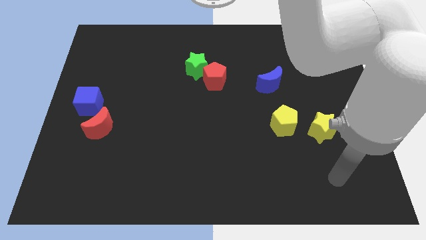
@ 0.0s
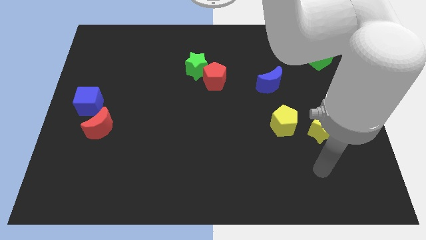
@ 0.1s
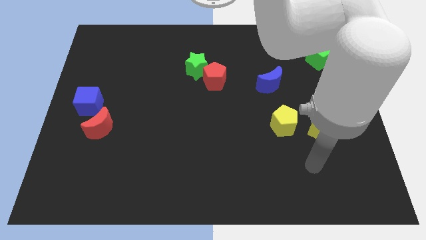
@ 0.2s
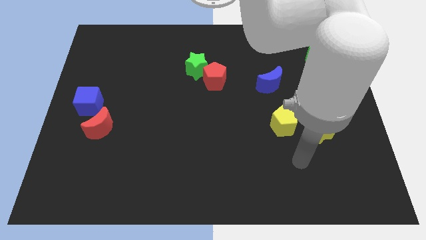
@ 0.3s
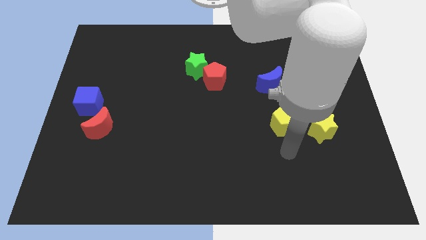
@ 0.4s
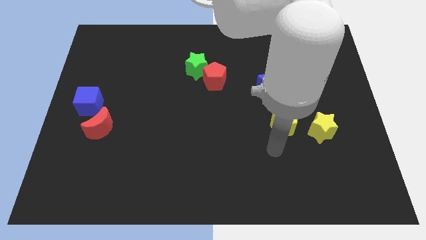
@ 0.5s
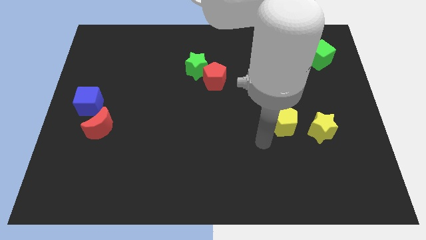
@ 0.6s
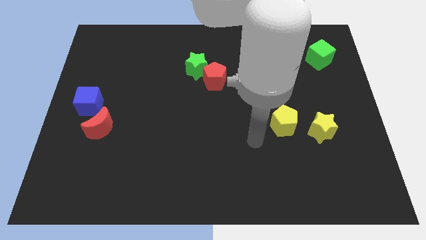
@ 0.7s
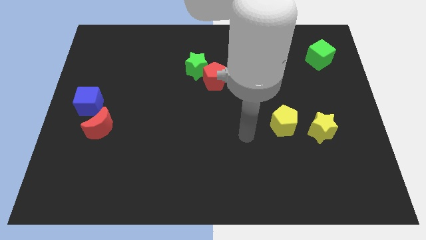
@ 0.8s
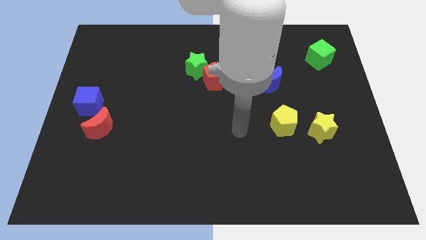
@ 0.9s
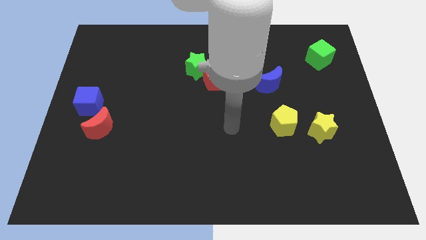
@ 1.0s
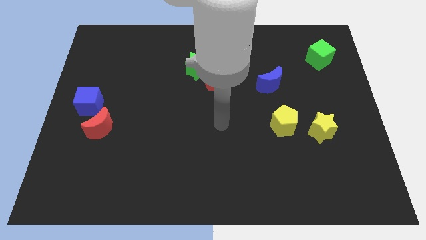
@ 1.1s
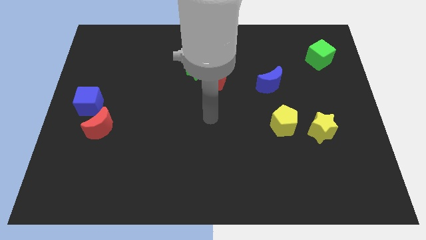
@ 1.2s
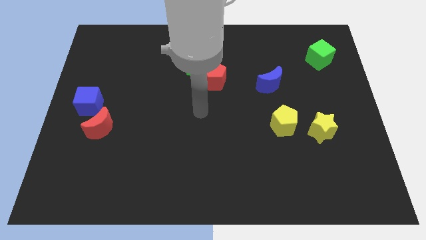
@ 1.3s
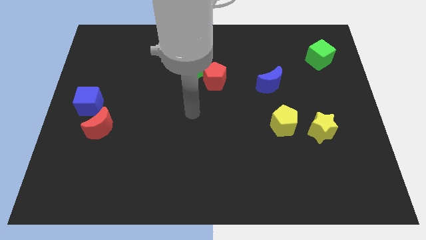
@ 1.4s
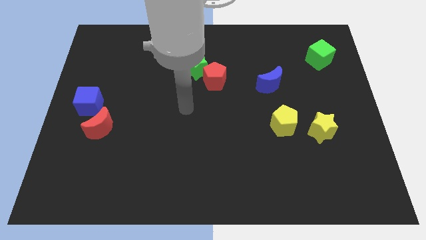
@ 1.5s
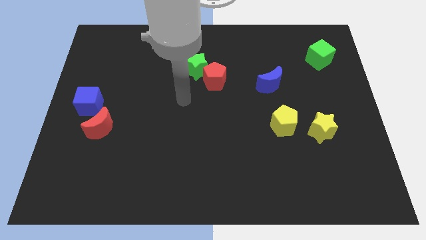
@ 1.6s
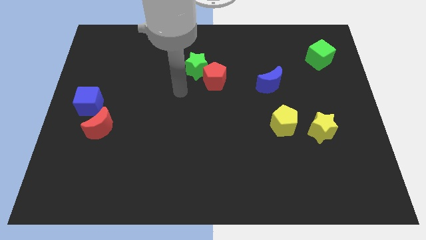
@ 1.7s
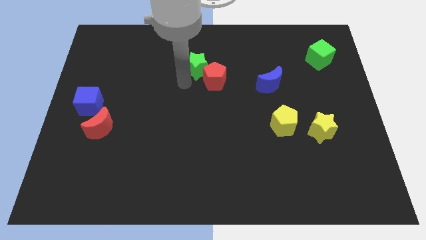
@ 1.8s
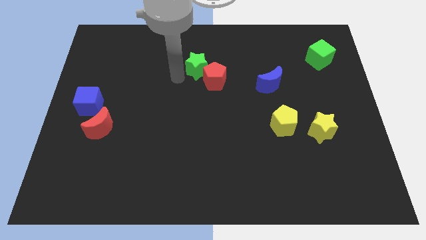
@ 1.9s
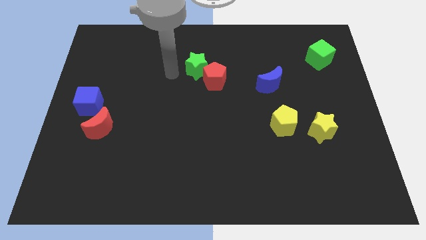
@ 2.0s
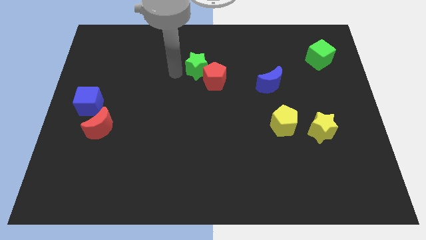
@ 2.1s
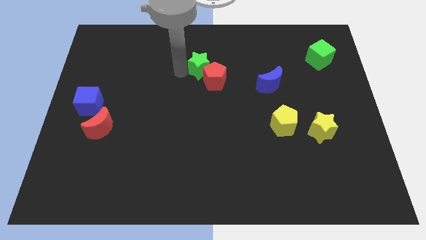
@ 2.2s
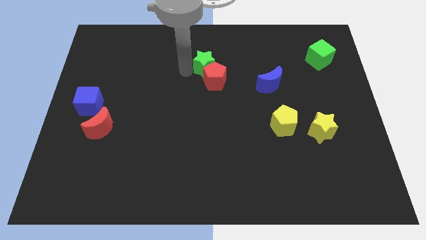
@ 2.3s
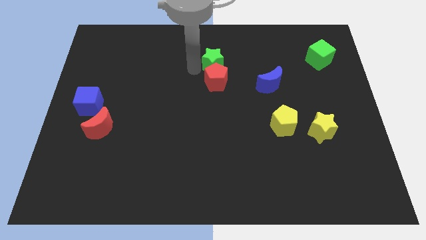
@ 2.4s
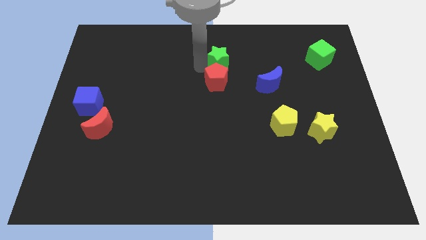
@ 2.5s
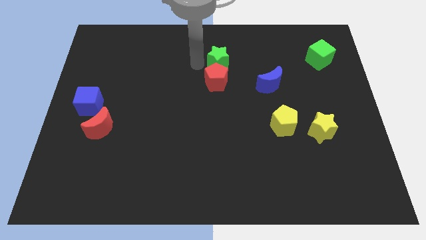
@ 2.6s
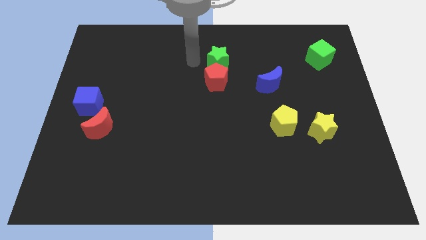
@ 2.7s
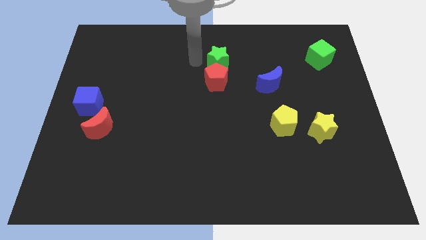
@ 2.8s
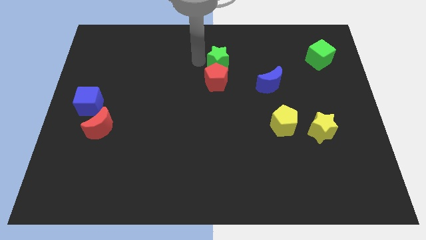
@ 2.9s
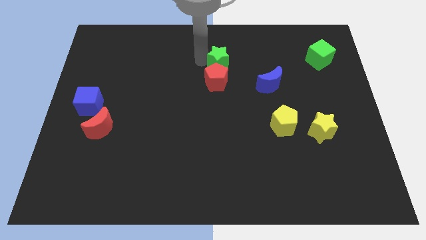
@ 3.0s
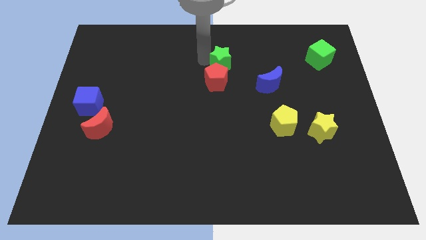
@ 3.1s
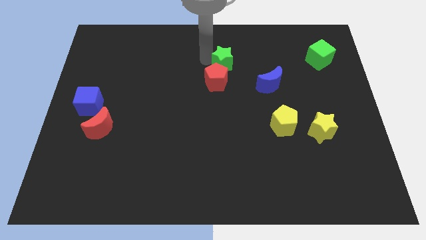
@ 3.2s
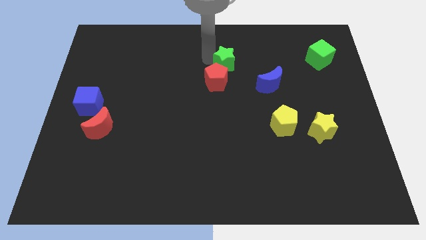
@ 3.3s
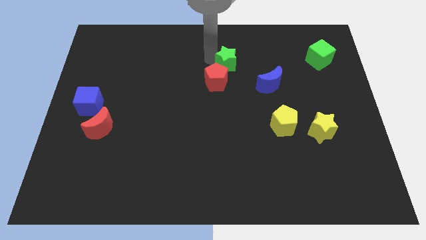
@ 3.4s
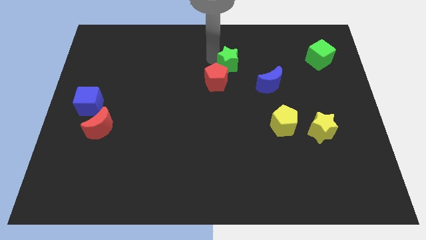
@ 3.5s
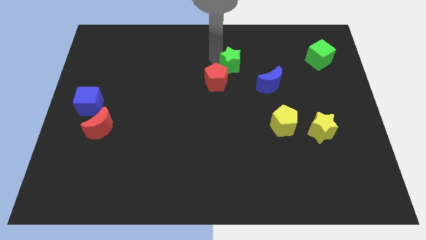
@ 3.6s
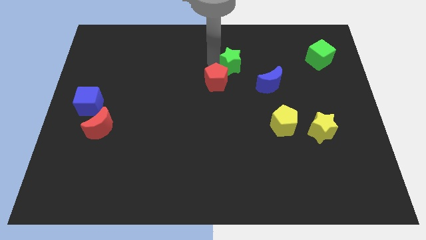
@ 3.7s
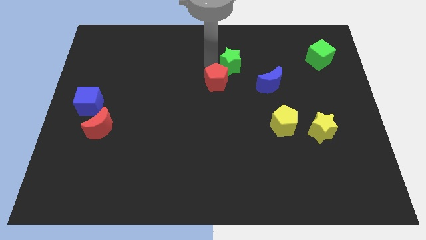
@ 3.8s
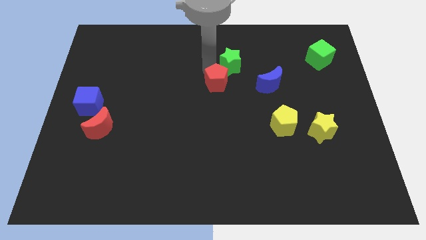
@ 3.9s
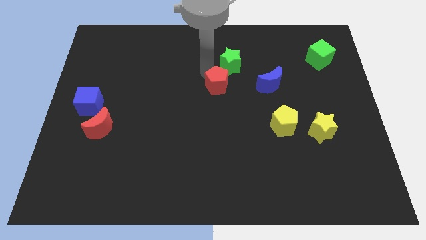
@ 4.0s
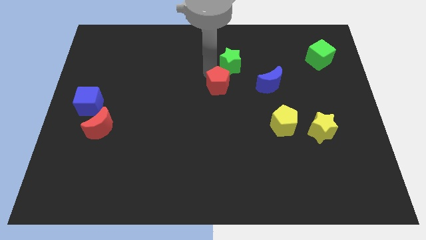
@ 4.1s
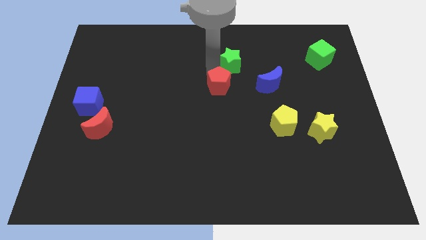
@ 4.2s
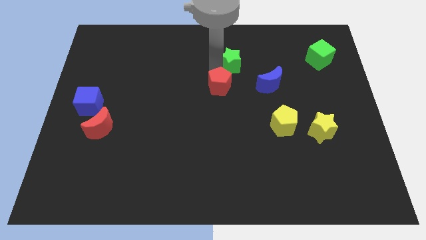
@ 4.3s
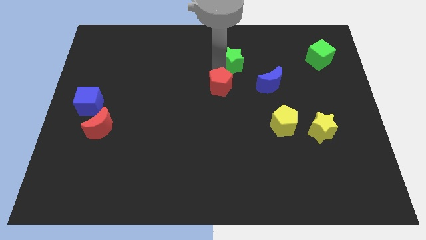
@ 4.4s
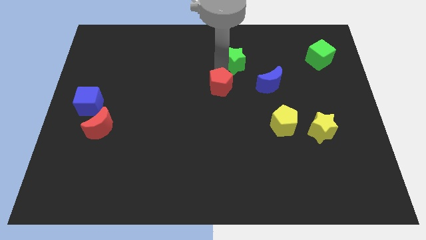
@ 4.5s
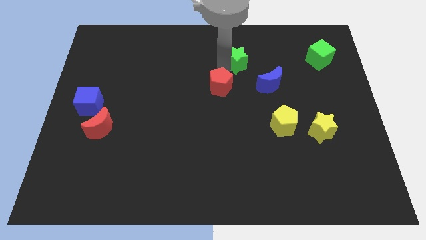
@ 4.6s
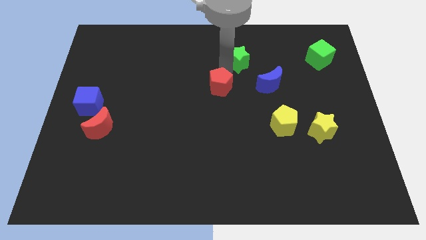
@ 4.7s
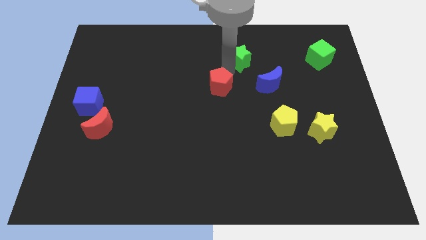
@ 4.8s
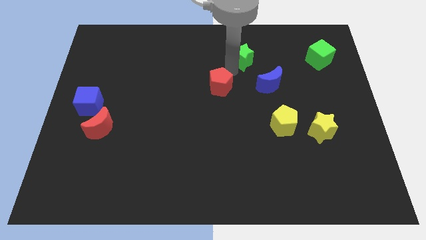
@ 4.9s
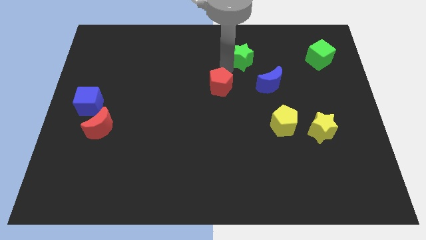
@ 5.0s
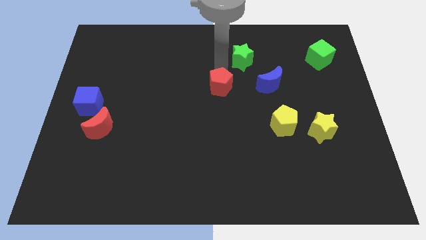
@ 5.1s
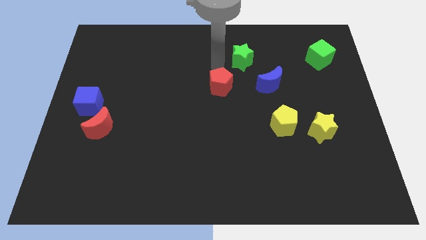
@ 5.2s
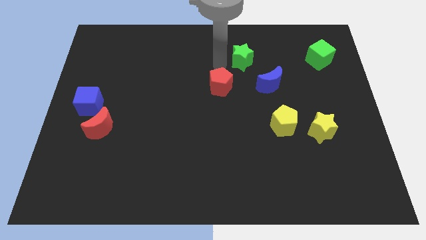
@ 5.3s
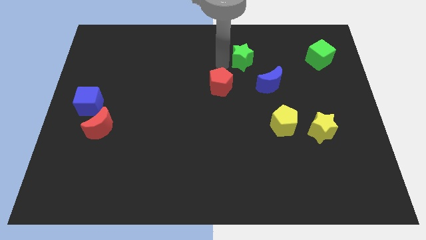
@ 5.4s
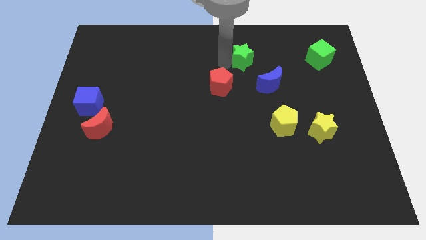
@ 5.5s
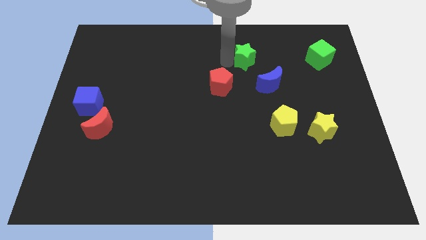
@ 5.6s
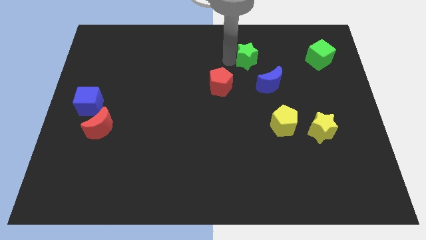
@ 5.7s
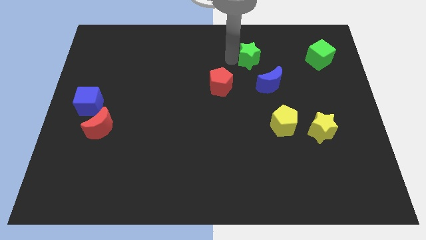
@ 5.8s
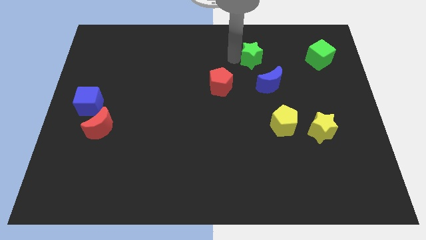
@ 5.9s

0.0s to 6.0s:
move the green star to the top side of the blue moon

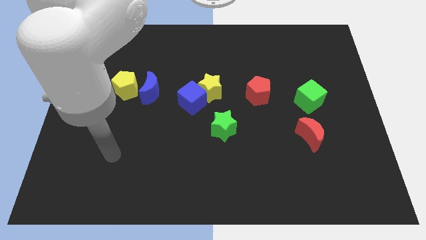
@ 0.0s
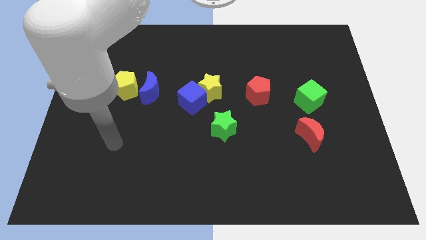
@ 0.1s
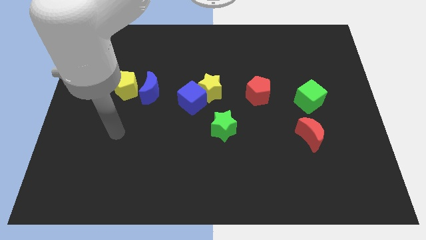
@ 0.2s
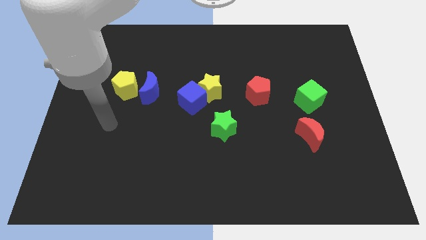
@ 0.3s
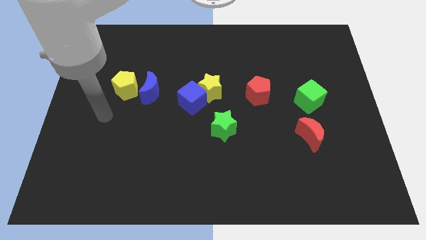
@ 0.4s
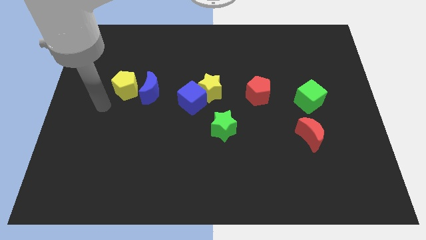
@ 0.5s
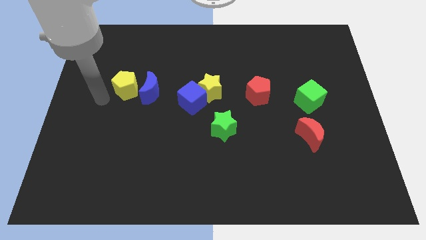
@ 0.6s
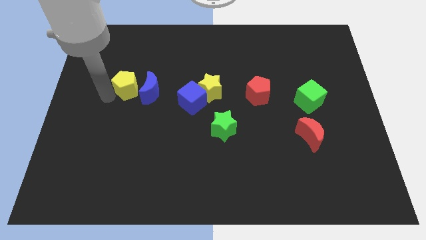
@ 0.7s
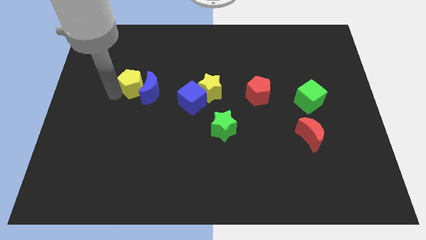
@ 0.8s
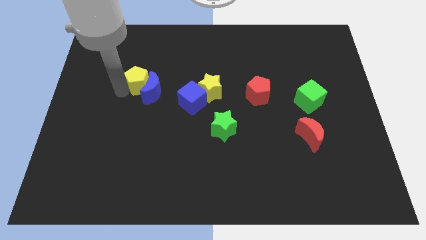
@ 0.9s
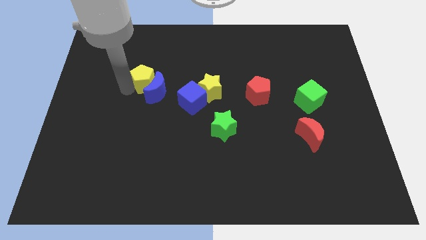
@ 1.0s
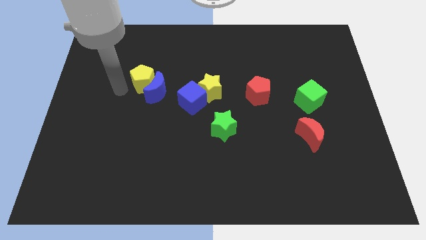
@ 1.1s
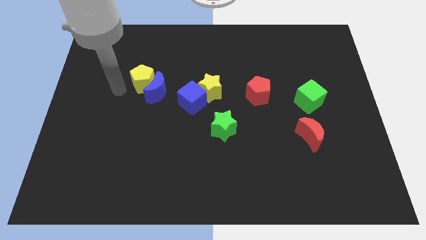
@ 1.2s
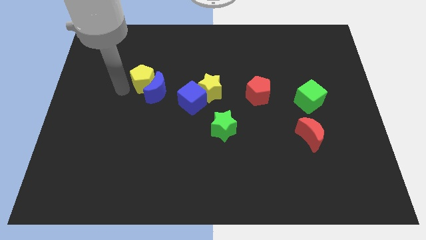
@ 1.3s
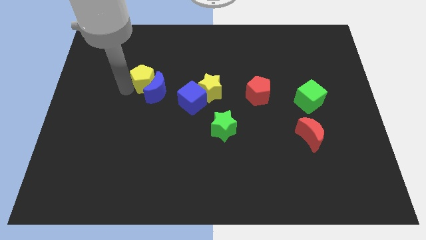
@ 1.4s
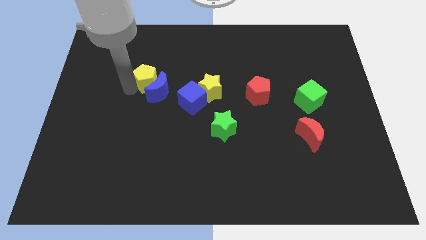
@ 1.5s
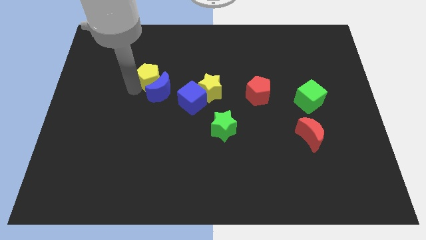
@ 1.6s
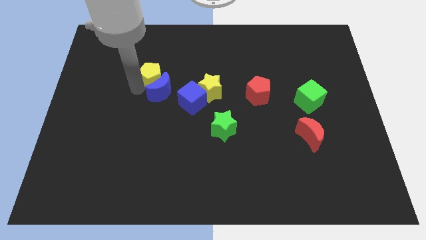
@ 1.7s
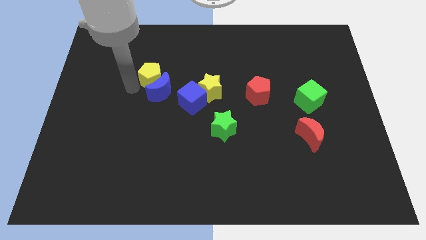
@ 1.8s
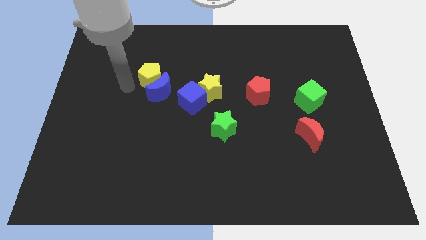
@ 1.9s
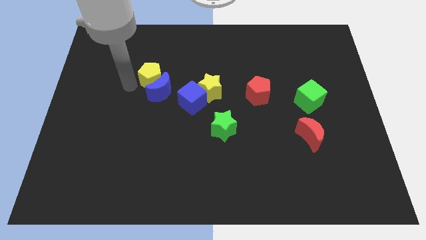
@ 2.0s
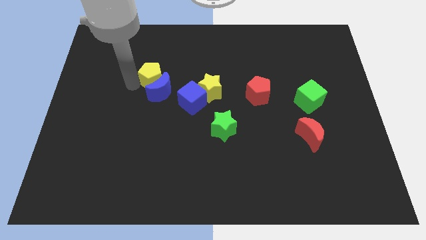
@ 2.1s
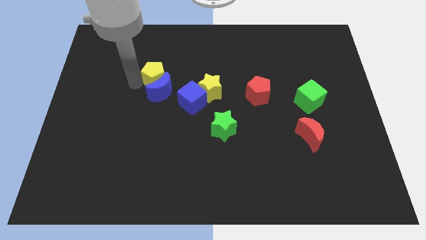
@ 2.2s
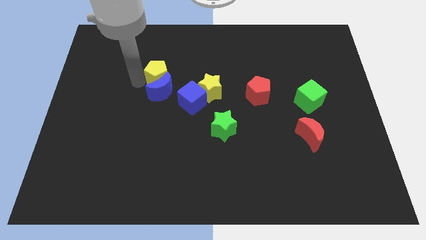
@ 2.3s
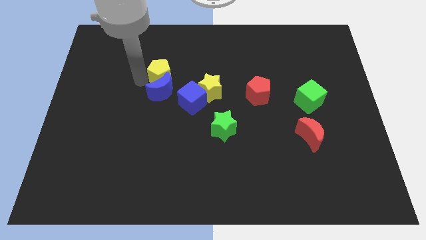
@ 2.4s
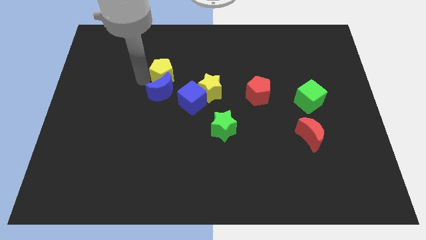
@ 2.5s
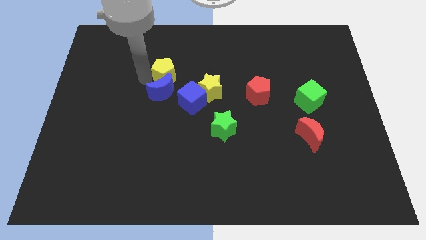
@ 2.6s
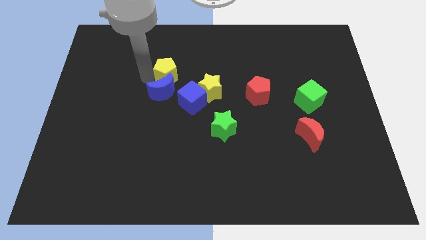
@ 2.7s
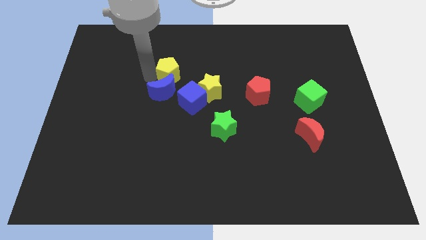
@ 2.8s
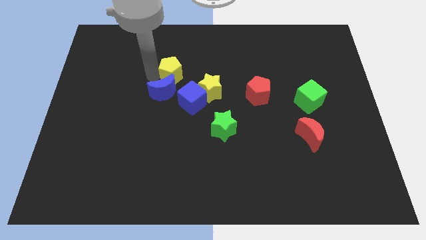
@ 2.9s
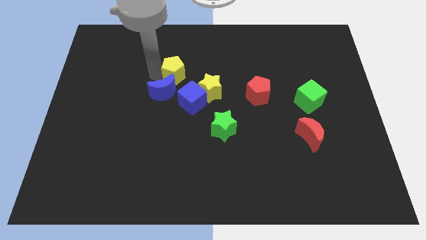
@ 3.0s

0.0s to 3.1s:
slide the yellow pentagon above the blue cube
